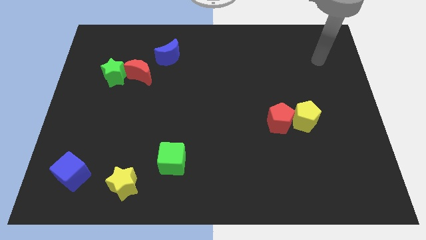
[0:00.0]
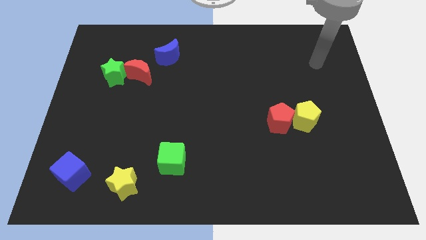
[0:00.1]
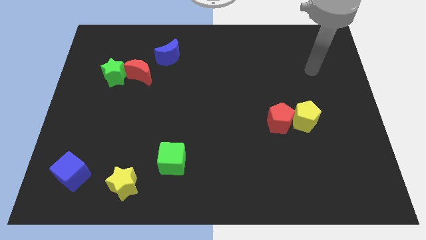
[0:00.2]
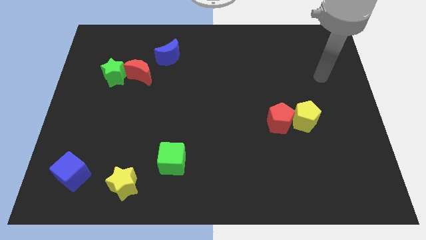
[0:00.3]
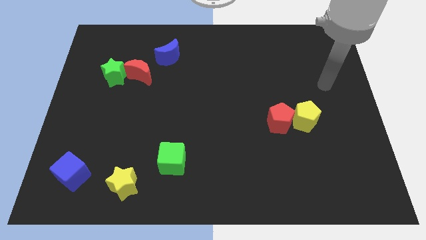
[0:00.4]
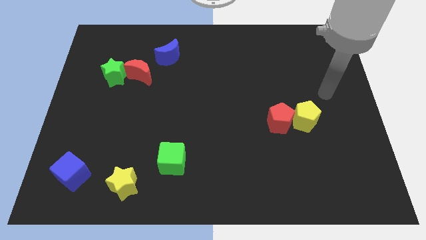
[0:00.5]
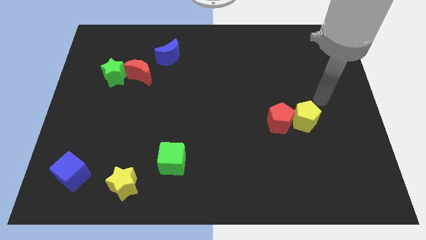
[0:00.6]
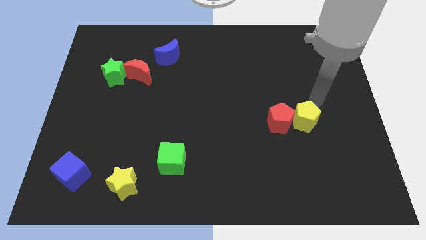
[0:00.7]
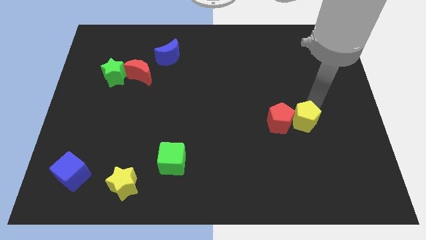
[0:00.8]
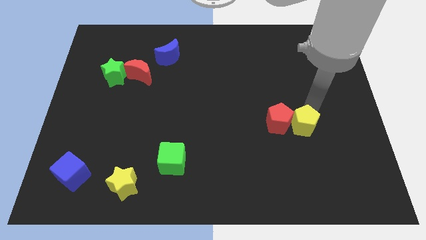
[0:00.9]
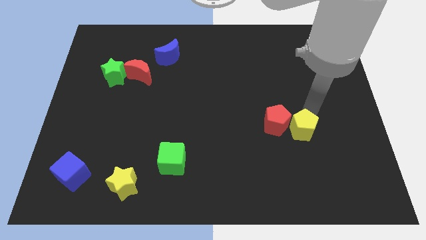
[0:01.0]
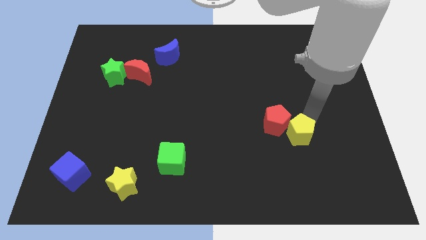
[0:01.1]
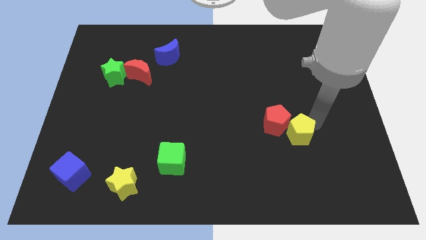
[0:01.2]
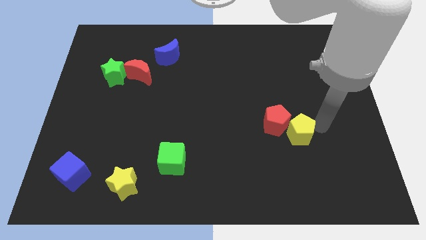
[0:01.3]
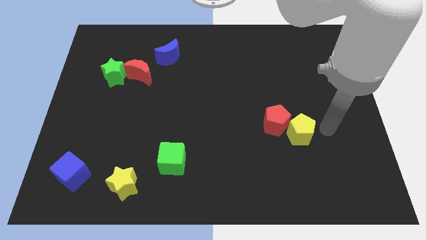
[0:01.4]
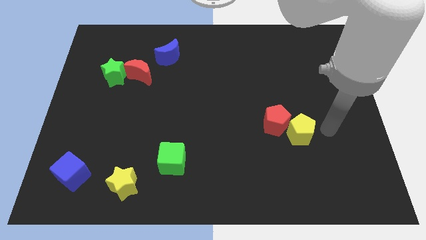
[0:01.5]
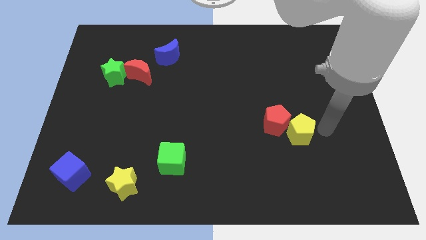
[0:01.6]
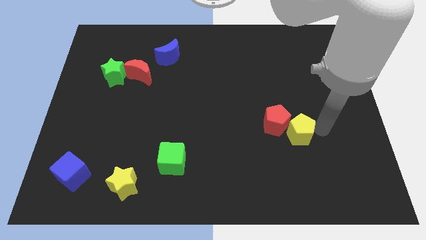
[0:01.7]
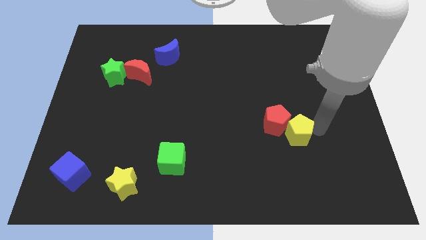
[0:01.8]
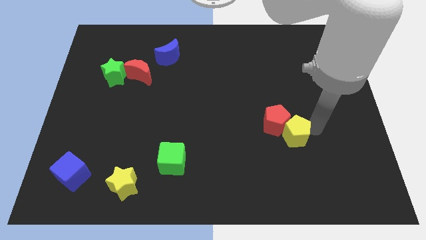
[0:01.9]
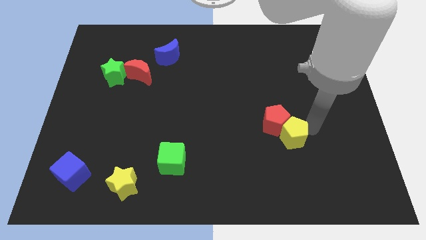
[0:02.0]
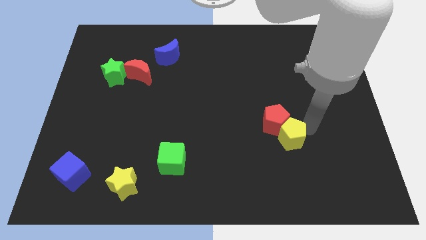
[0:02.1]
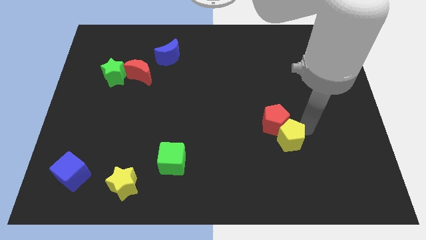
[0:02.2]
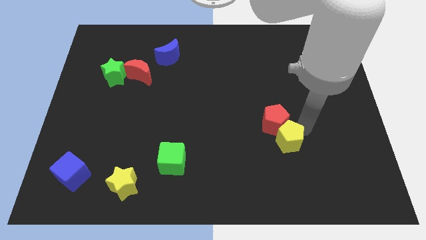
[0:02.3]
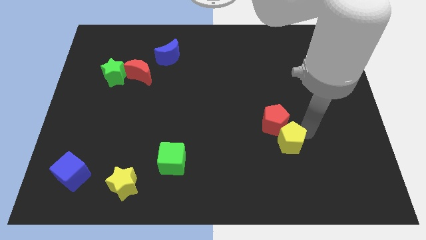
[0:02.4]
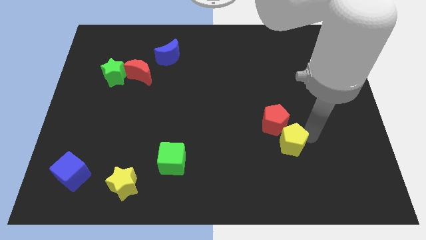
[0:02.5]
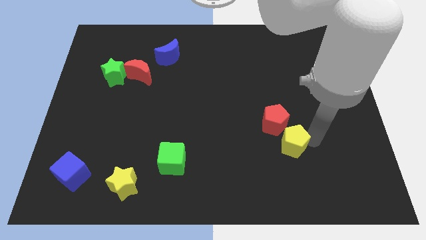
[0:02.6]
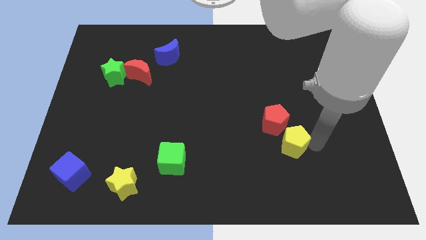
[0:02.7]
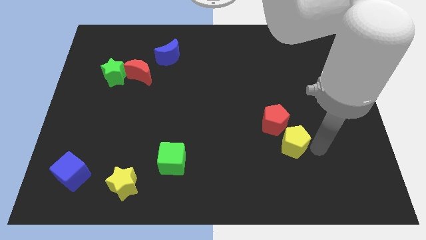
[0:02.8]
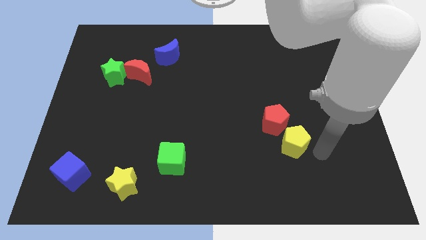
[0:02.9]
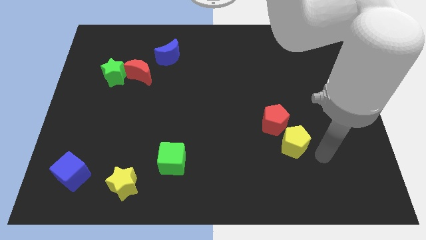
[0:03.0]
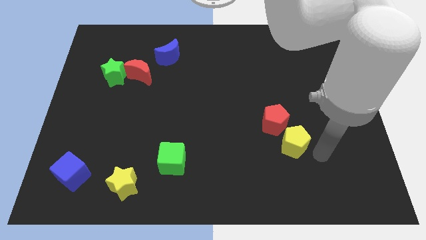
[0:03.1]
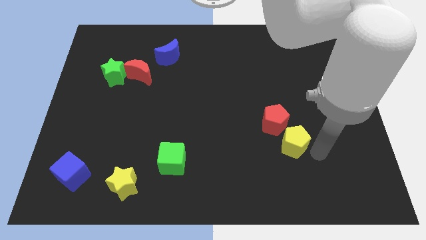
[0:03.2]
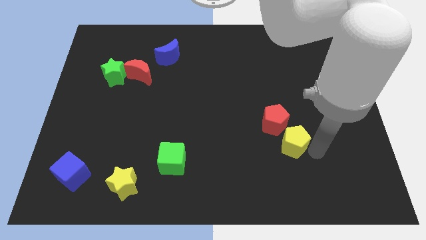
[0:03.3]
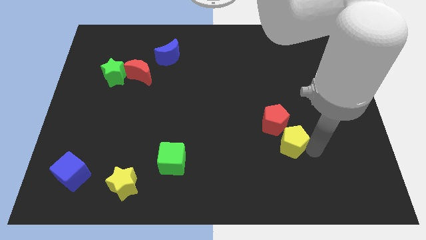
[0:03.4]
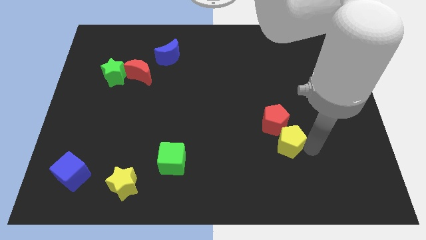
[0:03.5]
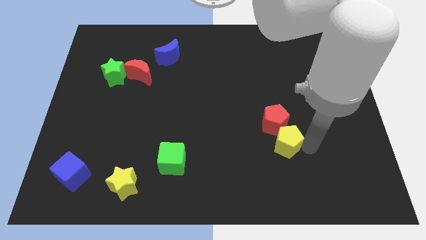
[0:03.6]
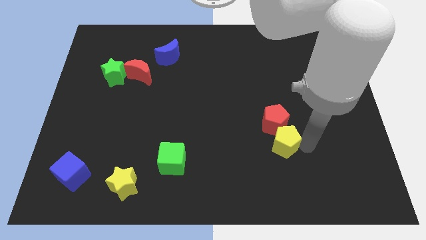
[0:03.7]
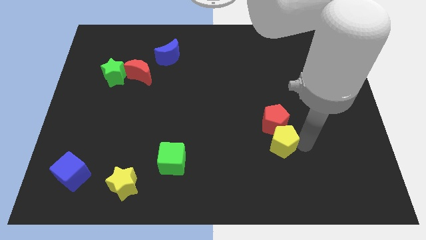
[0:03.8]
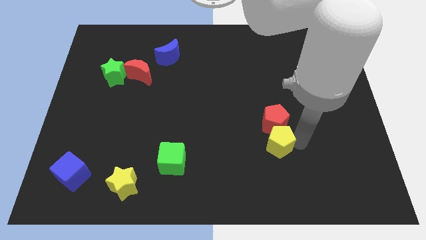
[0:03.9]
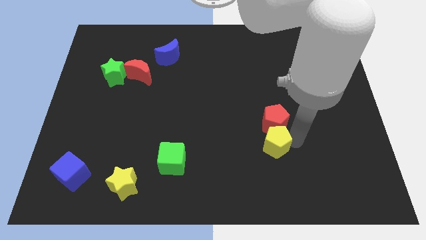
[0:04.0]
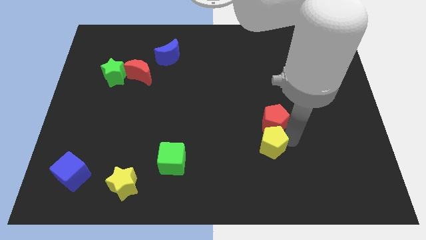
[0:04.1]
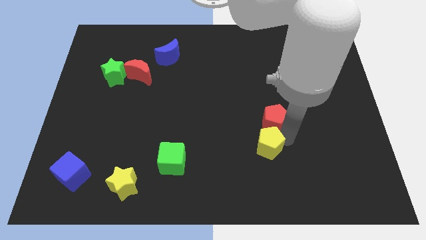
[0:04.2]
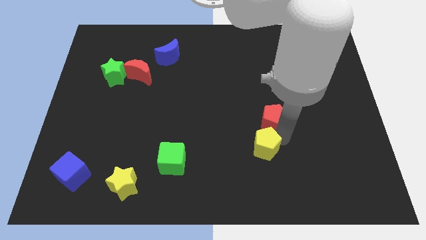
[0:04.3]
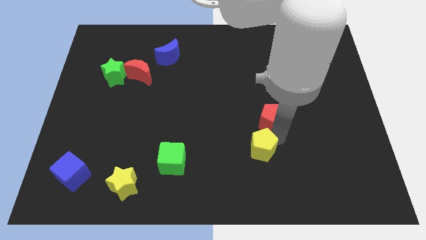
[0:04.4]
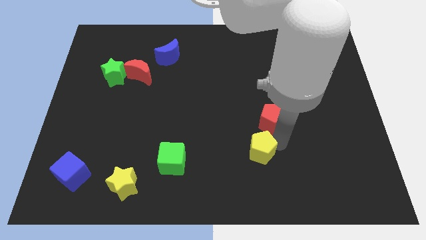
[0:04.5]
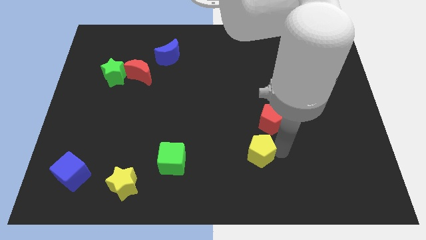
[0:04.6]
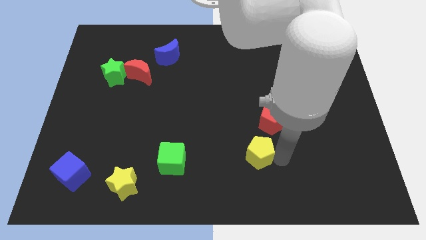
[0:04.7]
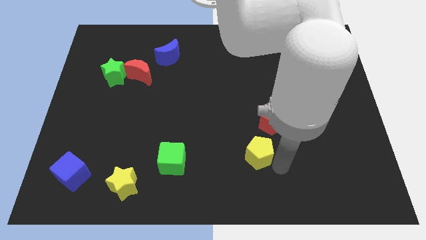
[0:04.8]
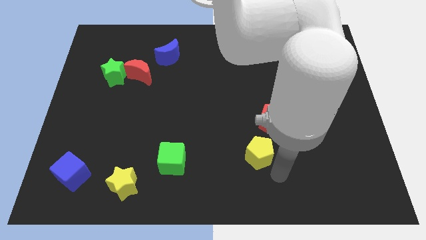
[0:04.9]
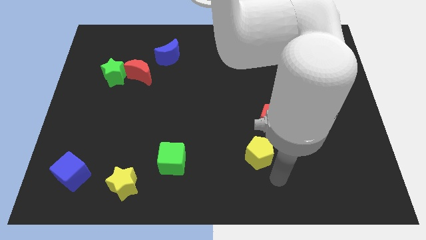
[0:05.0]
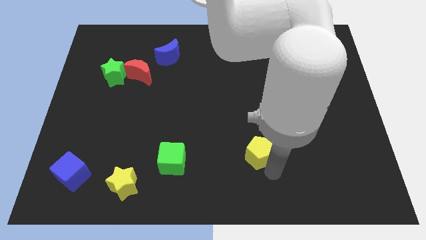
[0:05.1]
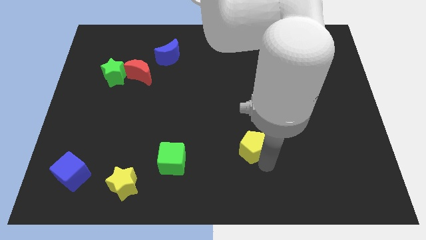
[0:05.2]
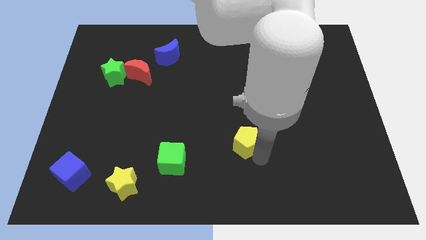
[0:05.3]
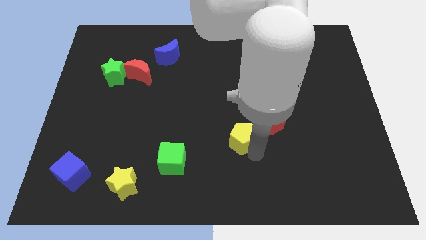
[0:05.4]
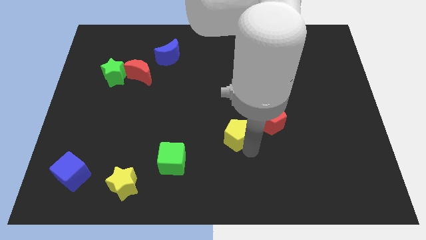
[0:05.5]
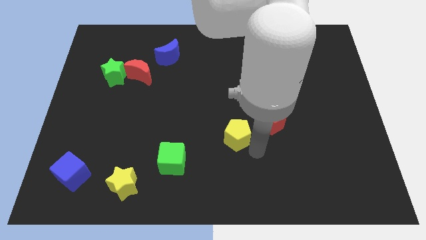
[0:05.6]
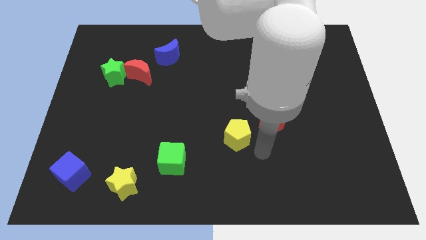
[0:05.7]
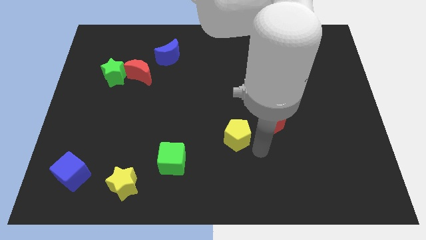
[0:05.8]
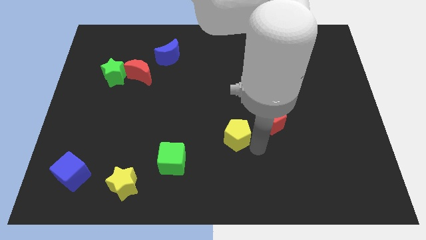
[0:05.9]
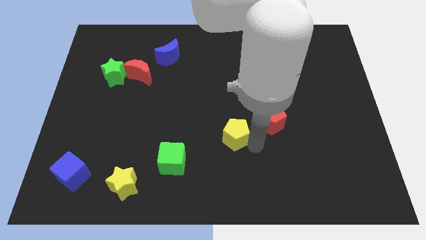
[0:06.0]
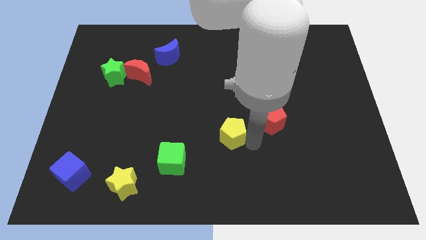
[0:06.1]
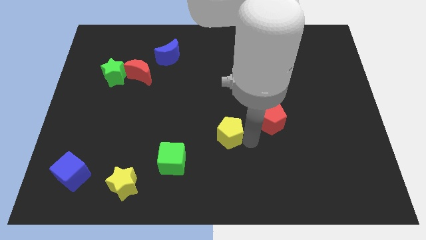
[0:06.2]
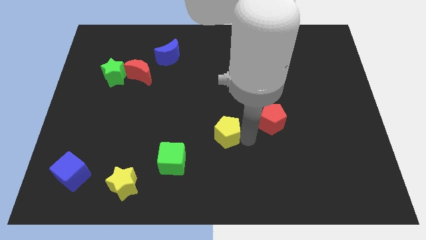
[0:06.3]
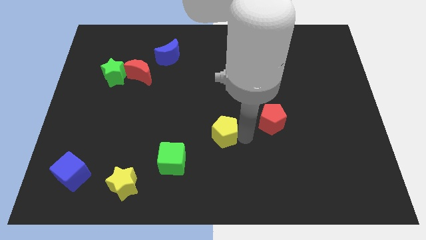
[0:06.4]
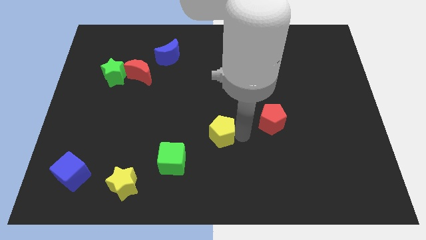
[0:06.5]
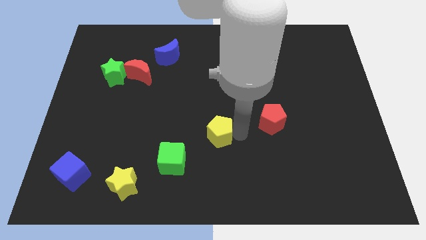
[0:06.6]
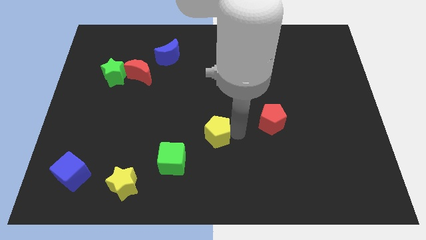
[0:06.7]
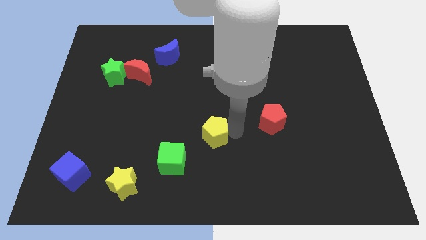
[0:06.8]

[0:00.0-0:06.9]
slide the yellow pentagon left

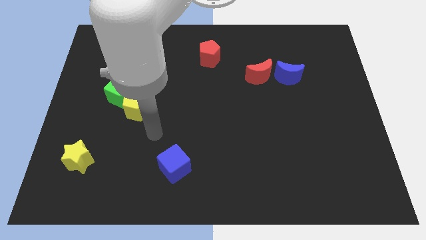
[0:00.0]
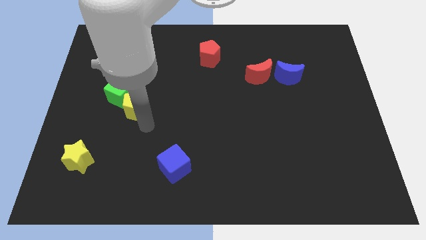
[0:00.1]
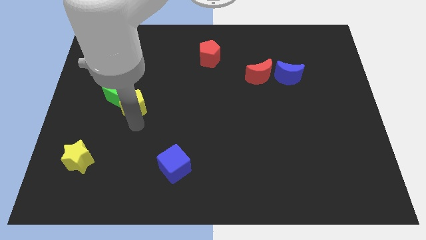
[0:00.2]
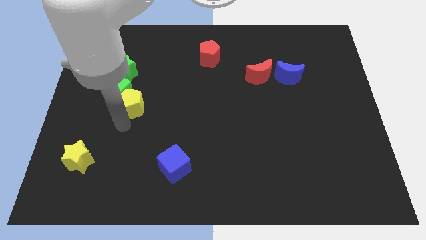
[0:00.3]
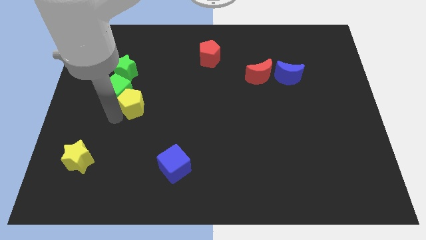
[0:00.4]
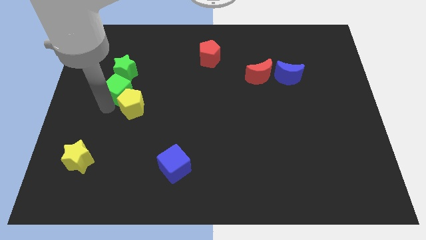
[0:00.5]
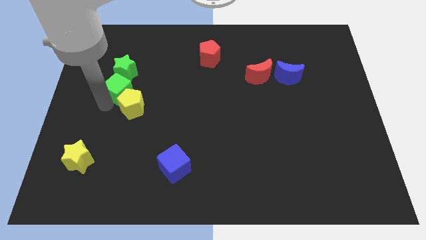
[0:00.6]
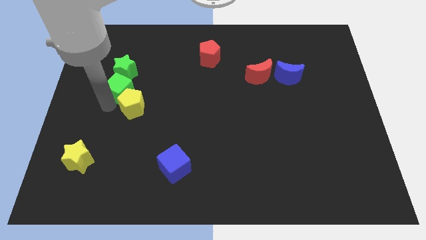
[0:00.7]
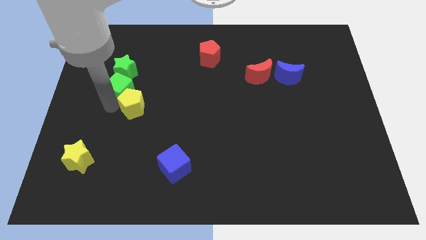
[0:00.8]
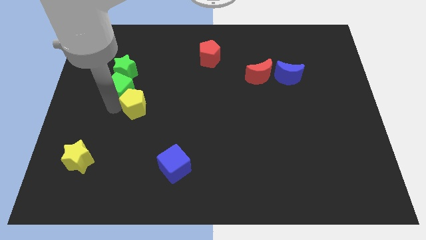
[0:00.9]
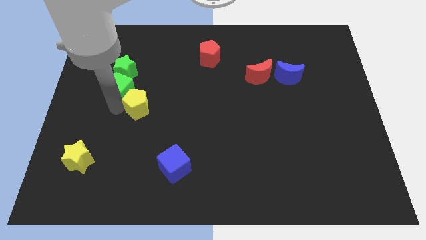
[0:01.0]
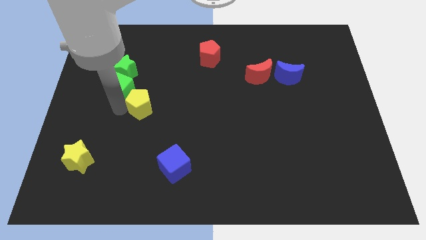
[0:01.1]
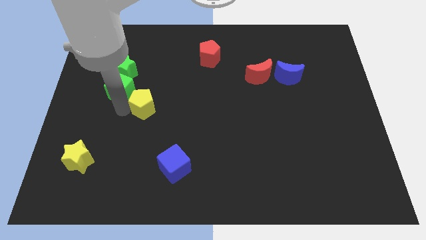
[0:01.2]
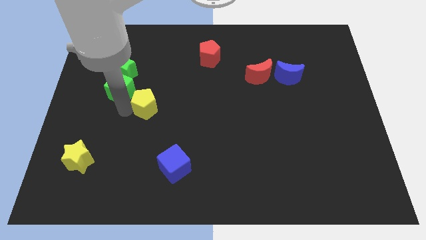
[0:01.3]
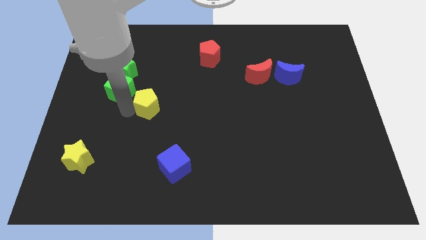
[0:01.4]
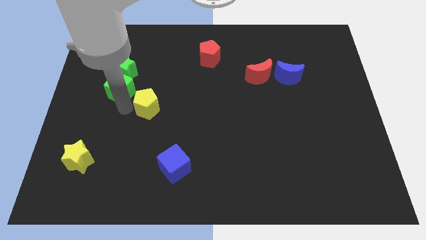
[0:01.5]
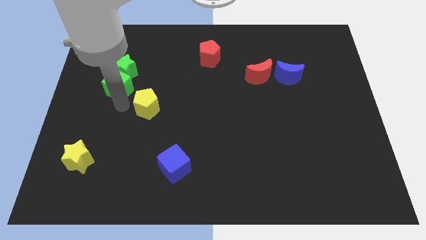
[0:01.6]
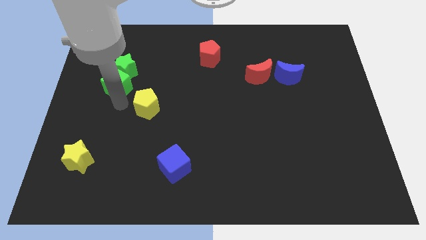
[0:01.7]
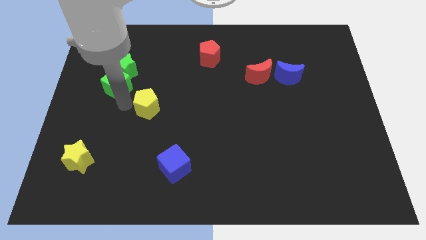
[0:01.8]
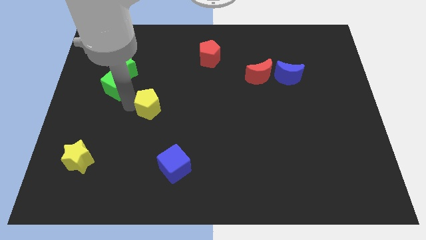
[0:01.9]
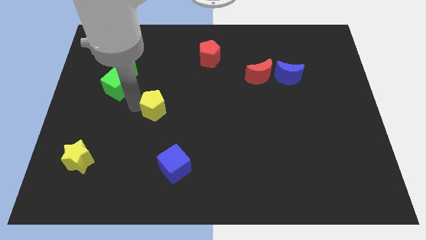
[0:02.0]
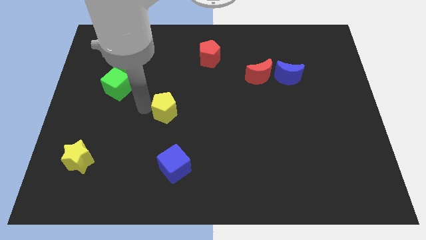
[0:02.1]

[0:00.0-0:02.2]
move the yellow pentagon to the right somewhat
